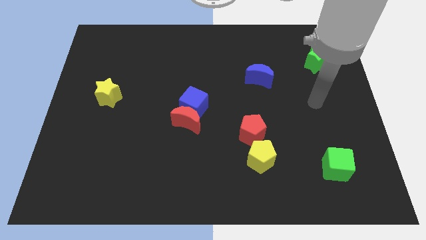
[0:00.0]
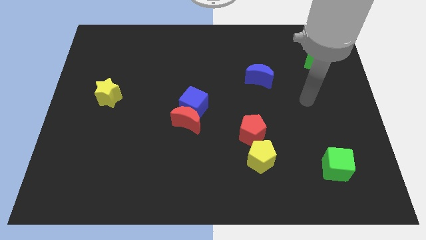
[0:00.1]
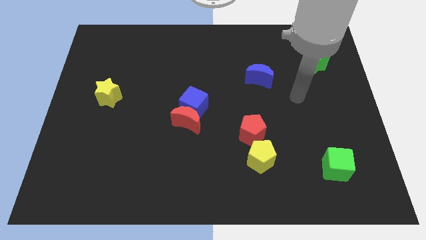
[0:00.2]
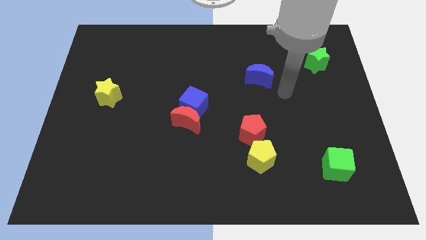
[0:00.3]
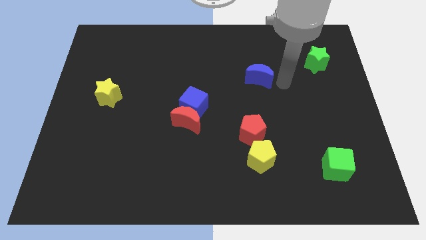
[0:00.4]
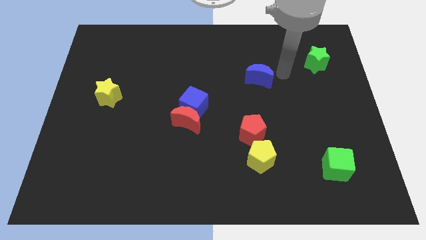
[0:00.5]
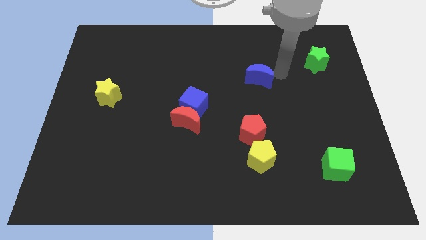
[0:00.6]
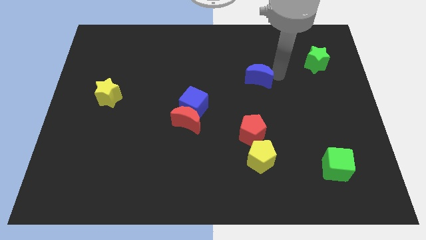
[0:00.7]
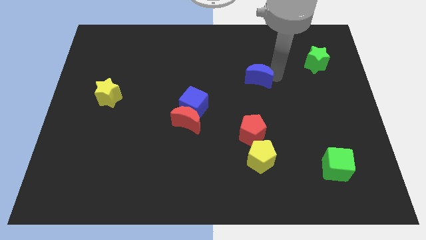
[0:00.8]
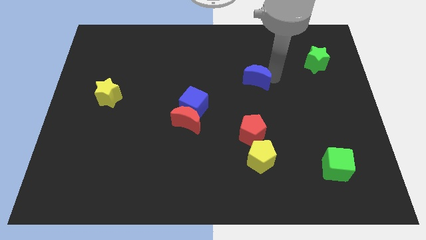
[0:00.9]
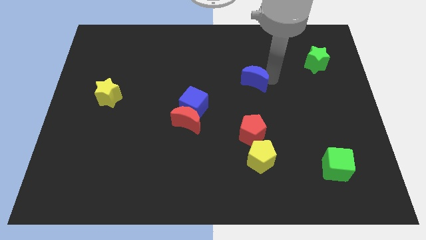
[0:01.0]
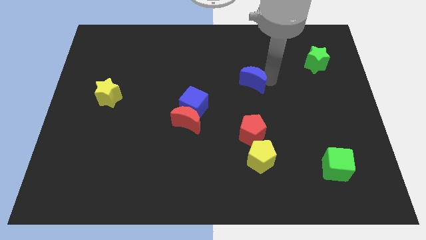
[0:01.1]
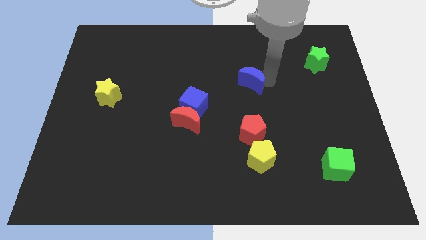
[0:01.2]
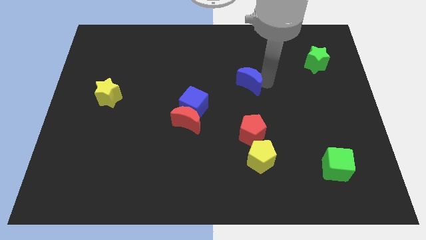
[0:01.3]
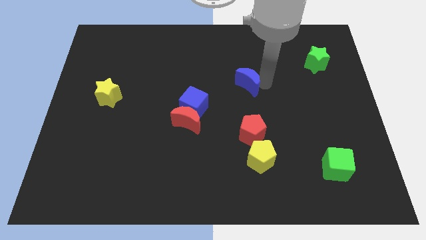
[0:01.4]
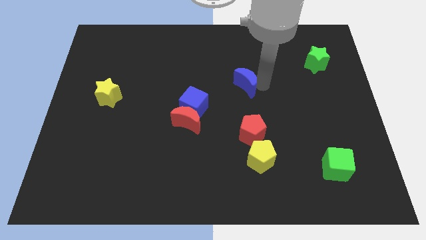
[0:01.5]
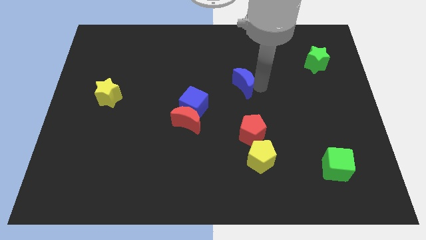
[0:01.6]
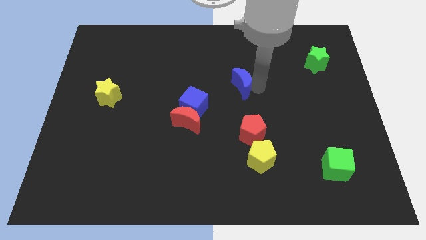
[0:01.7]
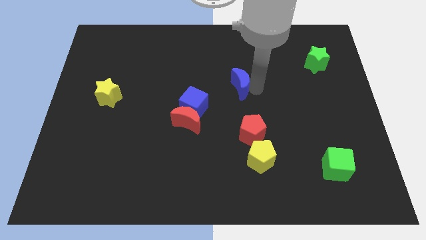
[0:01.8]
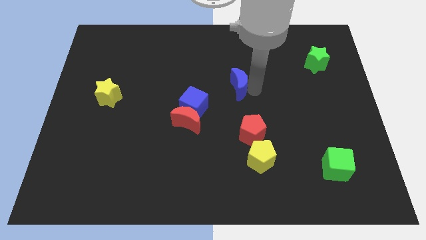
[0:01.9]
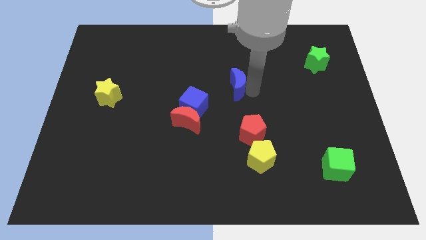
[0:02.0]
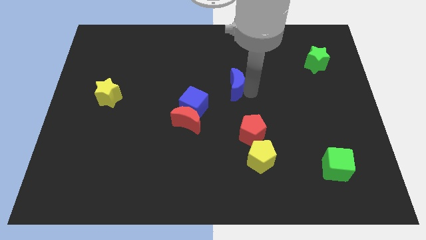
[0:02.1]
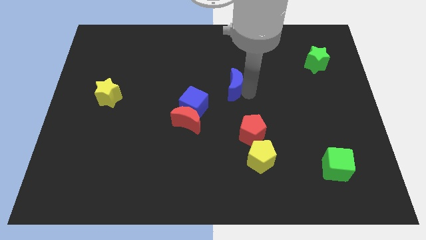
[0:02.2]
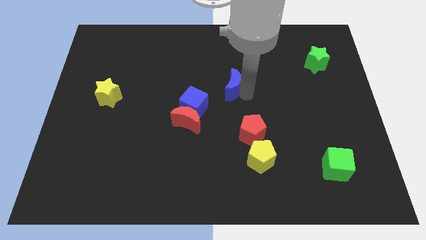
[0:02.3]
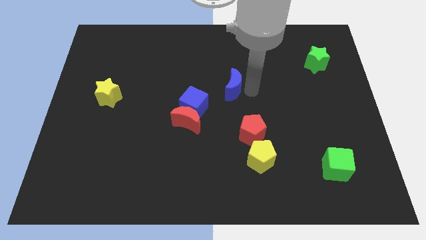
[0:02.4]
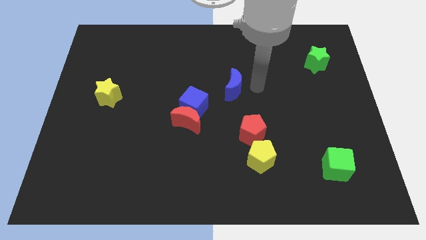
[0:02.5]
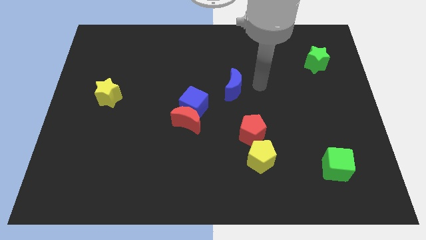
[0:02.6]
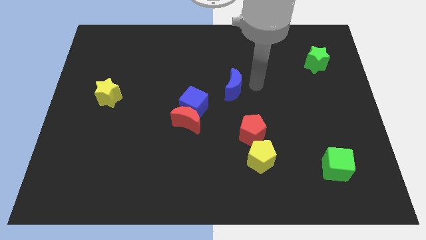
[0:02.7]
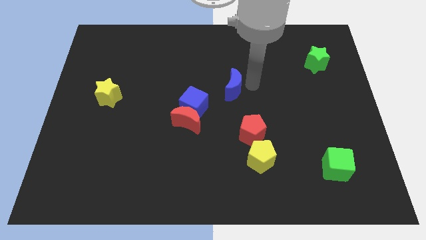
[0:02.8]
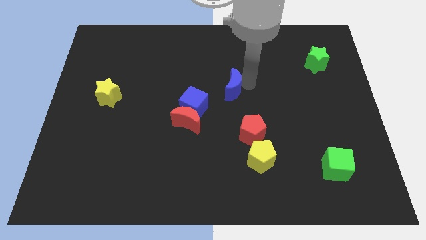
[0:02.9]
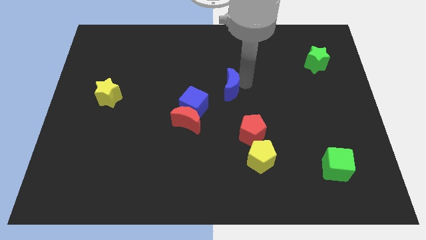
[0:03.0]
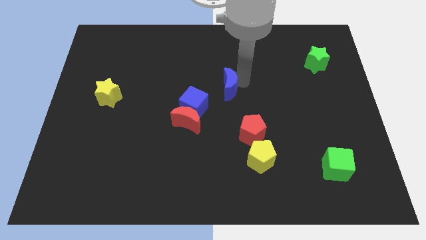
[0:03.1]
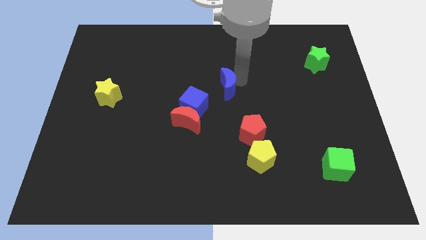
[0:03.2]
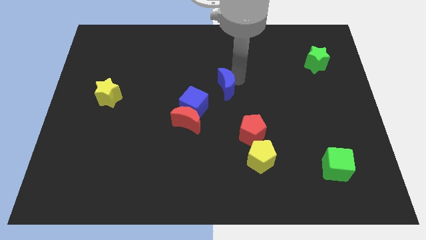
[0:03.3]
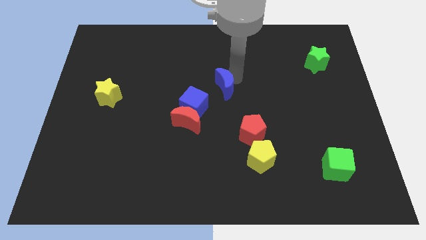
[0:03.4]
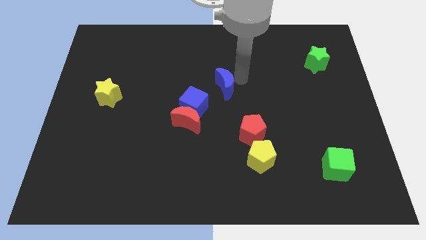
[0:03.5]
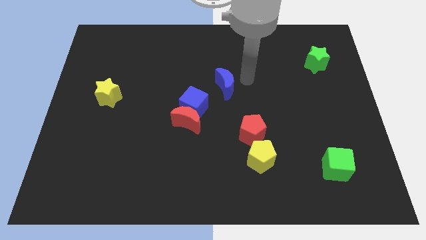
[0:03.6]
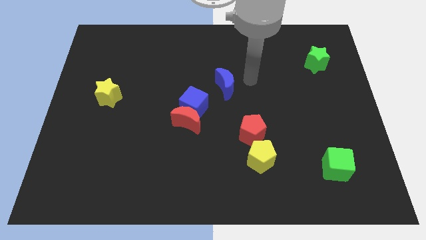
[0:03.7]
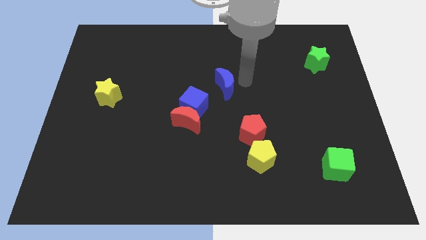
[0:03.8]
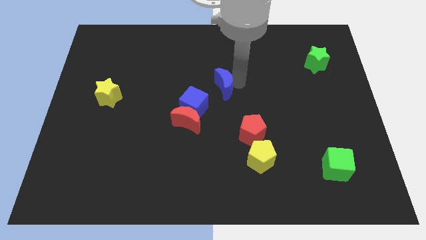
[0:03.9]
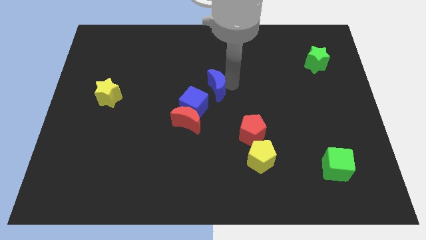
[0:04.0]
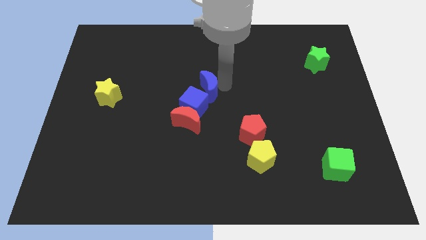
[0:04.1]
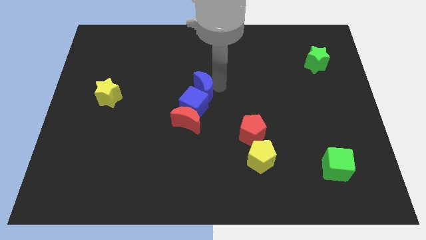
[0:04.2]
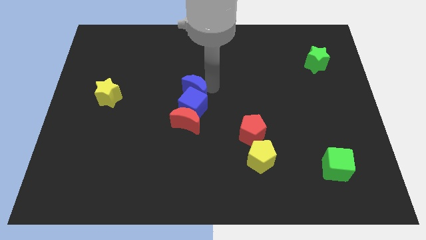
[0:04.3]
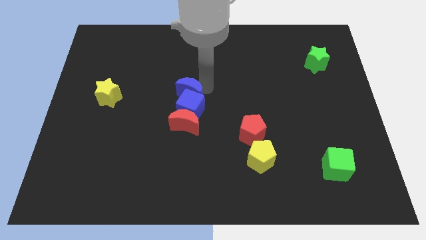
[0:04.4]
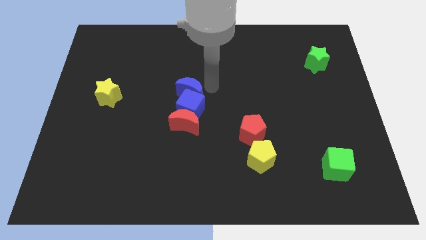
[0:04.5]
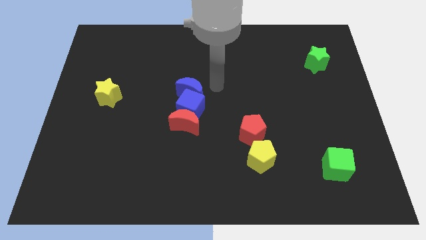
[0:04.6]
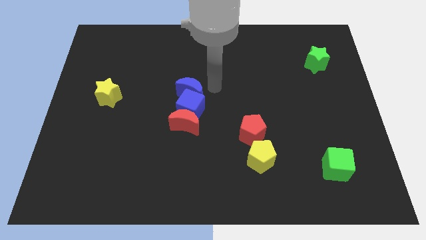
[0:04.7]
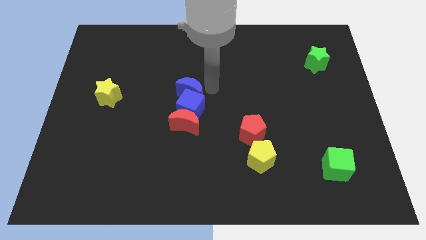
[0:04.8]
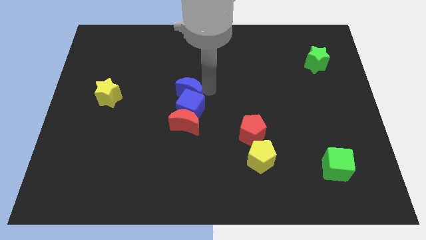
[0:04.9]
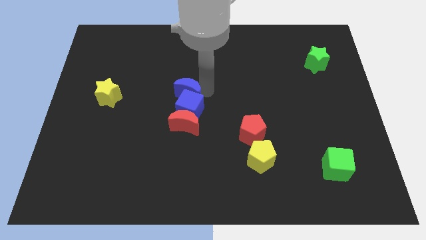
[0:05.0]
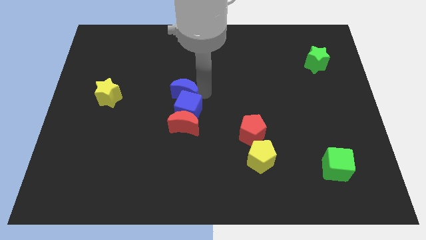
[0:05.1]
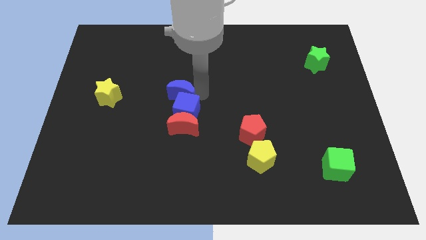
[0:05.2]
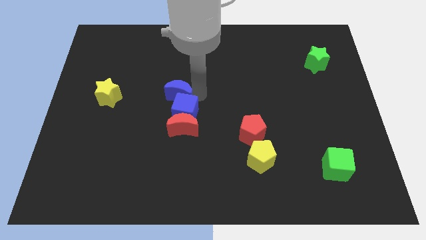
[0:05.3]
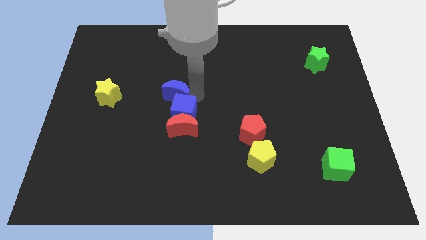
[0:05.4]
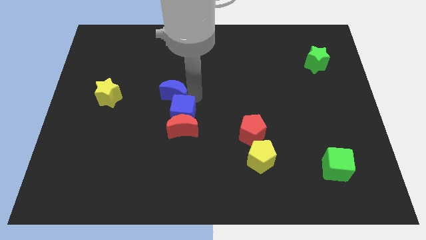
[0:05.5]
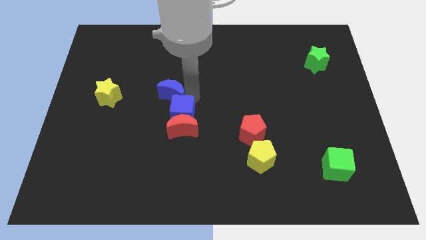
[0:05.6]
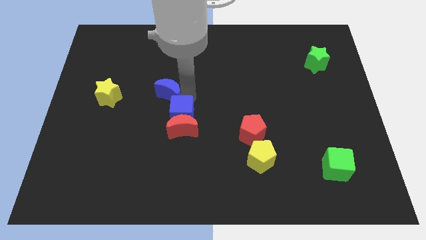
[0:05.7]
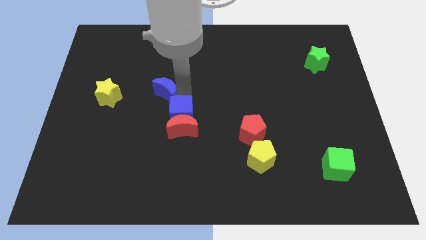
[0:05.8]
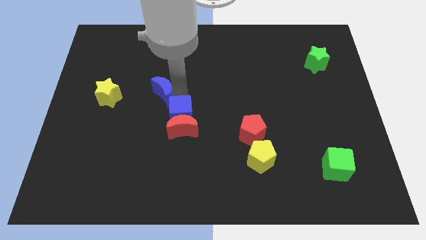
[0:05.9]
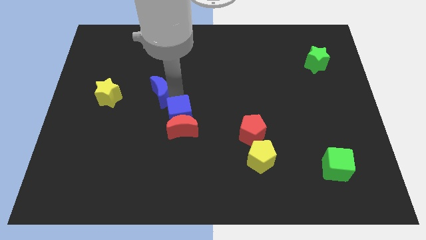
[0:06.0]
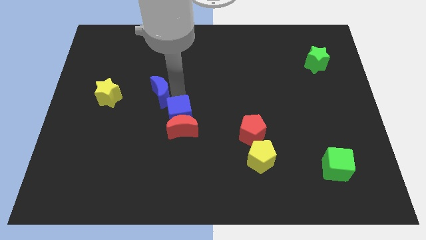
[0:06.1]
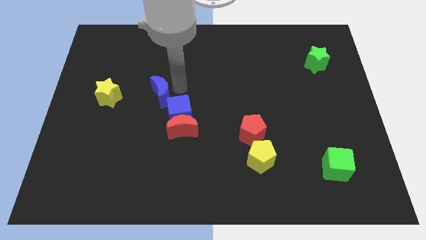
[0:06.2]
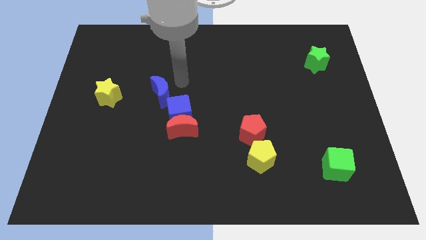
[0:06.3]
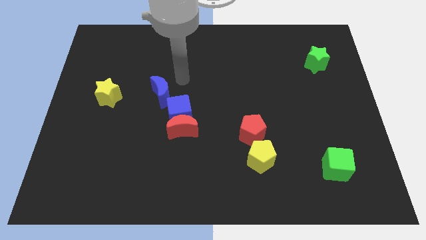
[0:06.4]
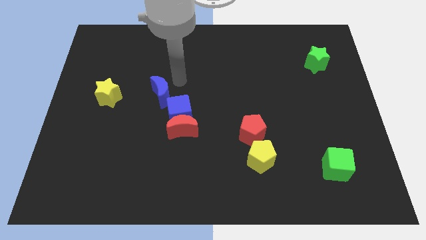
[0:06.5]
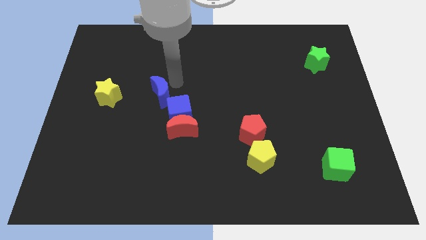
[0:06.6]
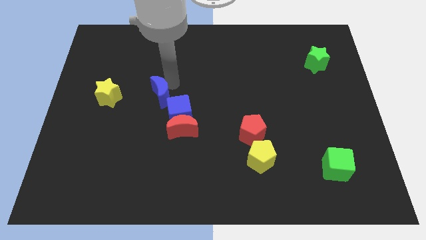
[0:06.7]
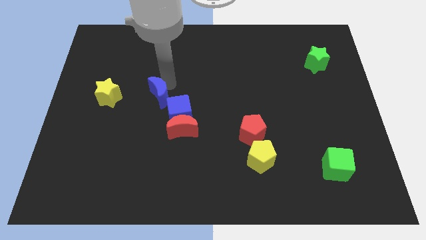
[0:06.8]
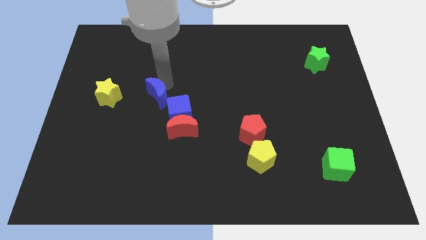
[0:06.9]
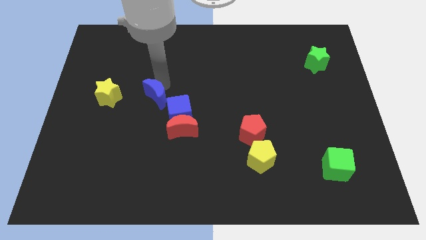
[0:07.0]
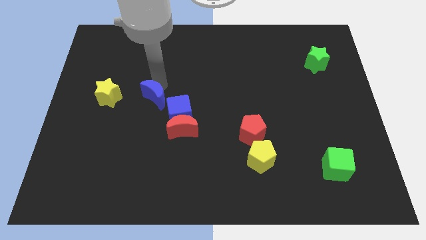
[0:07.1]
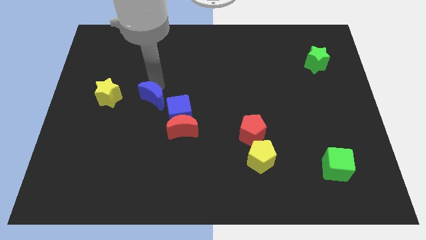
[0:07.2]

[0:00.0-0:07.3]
put the blue moon to the left side of the blue cube
